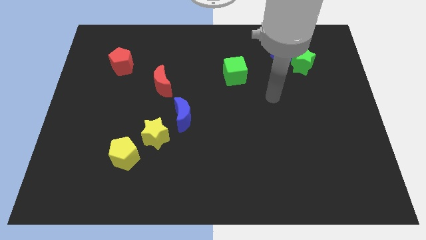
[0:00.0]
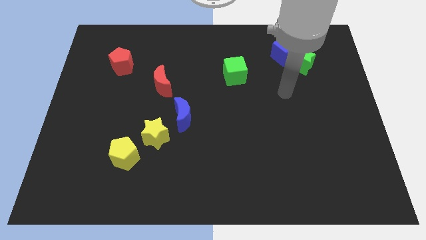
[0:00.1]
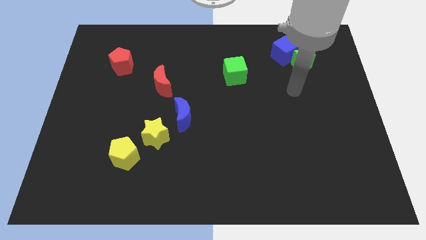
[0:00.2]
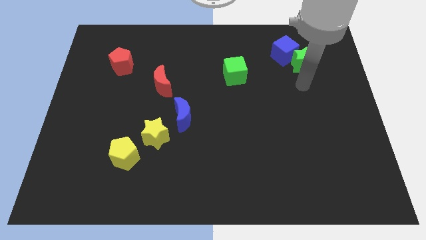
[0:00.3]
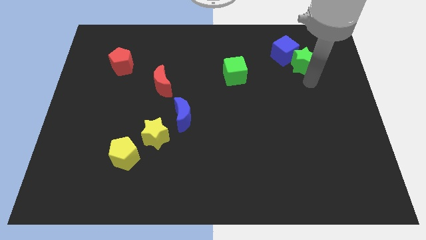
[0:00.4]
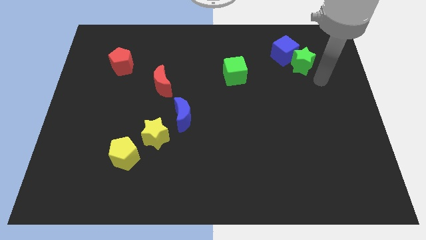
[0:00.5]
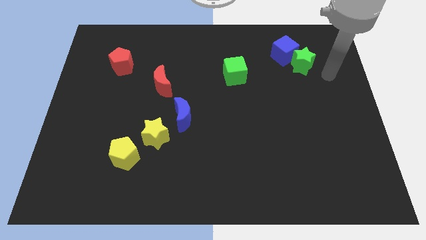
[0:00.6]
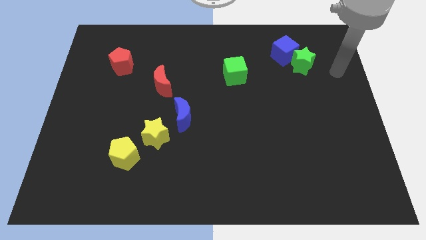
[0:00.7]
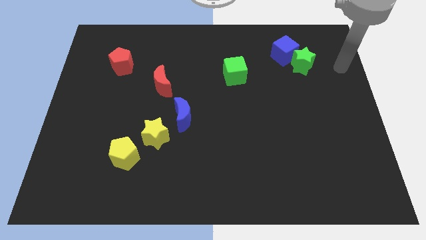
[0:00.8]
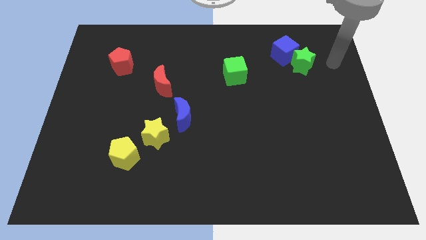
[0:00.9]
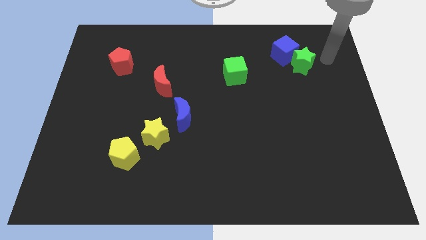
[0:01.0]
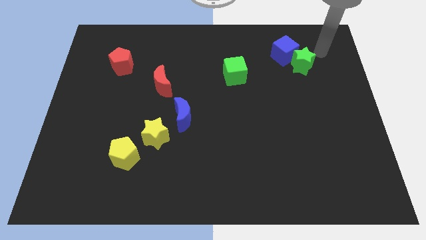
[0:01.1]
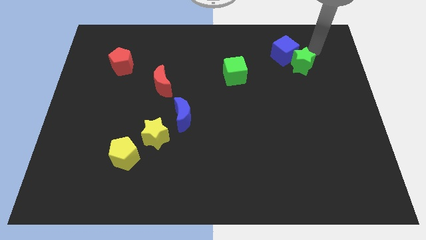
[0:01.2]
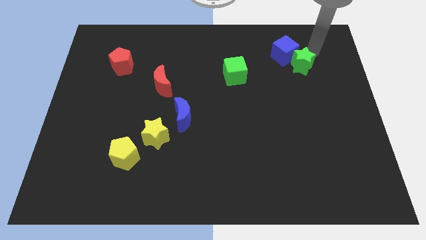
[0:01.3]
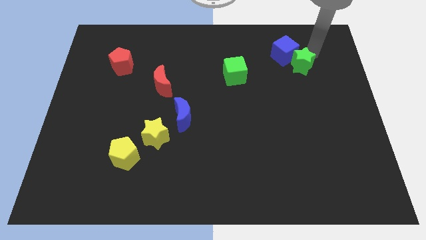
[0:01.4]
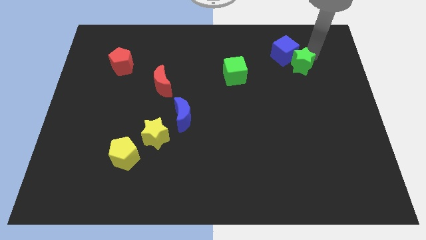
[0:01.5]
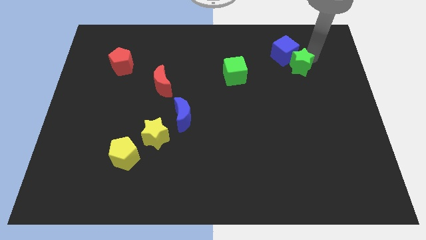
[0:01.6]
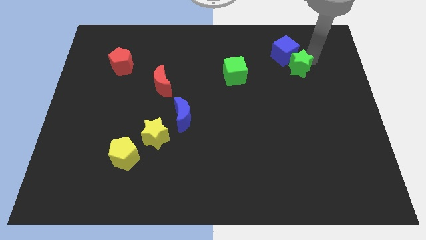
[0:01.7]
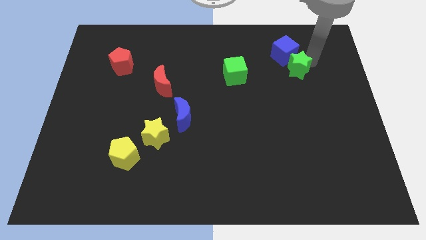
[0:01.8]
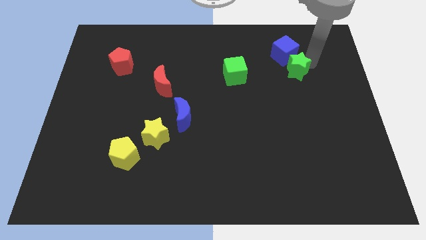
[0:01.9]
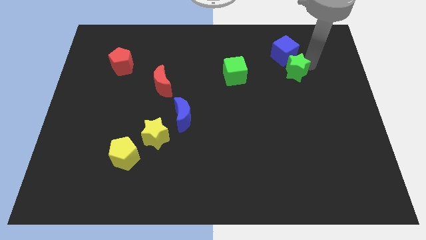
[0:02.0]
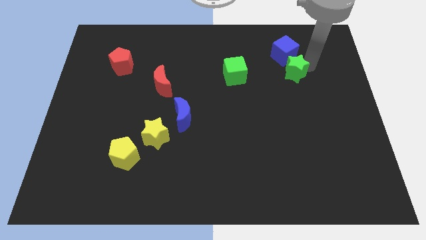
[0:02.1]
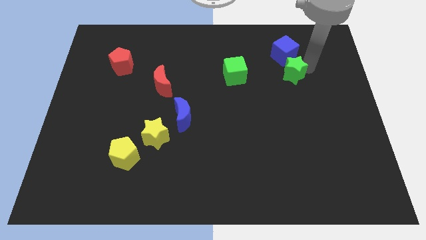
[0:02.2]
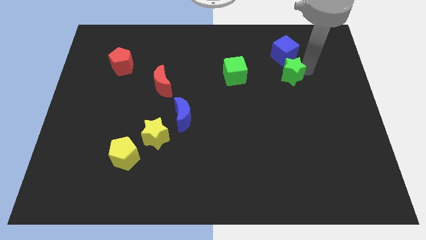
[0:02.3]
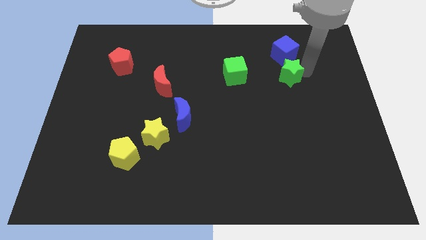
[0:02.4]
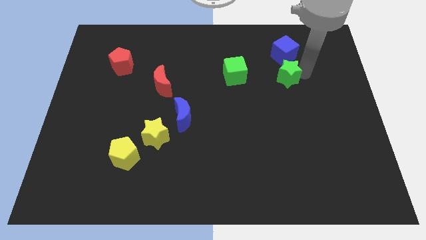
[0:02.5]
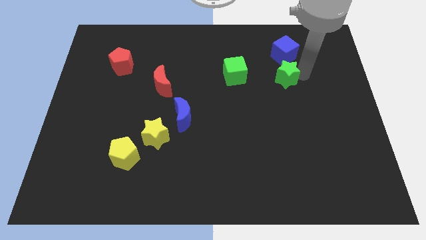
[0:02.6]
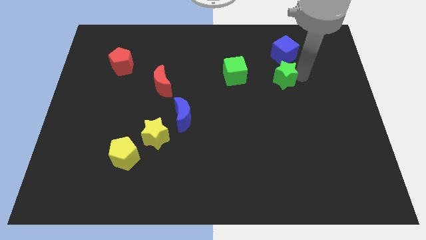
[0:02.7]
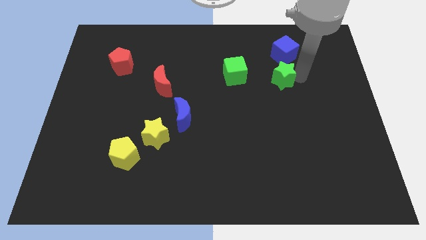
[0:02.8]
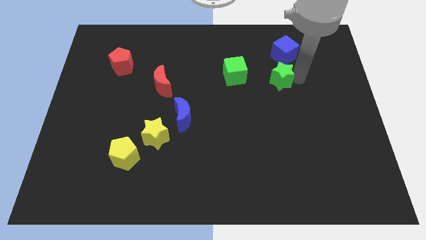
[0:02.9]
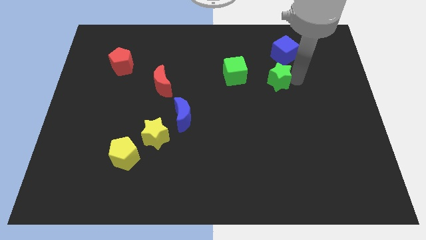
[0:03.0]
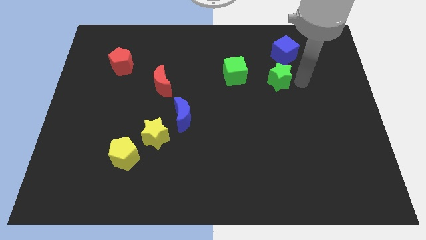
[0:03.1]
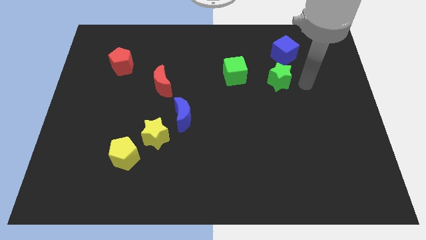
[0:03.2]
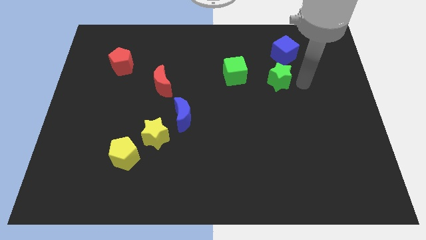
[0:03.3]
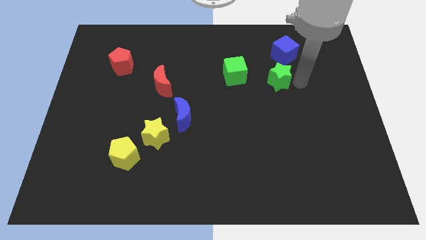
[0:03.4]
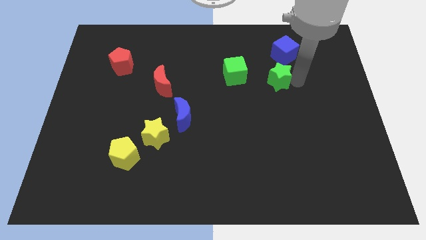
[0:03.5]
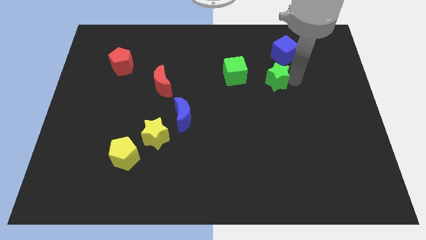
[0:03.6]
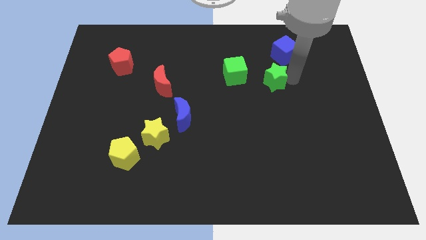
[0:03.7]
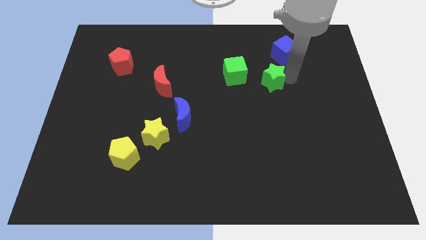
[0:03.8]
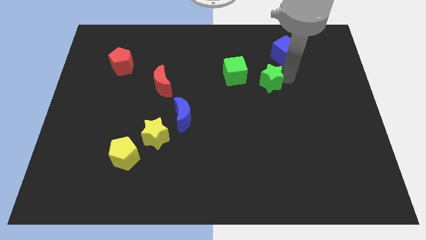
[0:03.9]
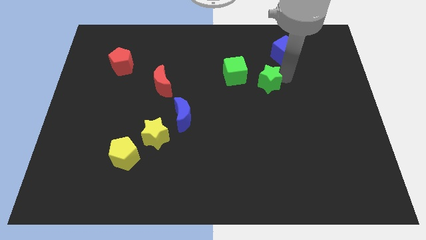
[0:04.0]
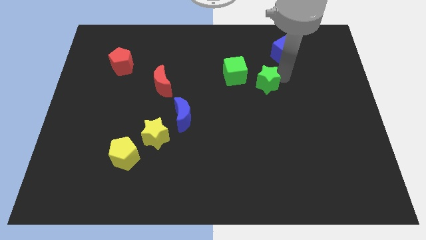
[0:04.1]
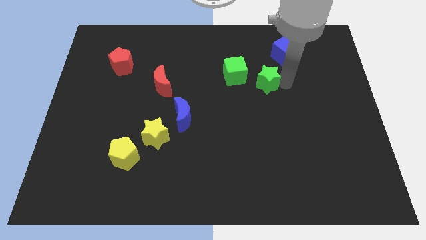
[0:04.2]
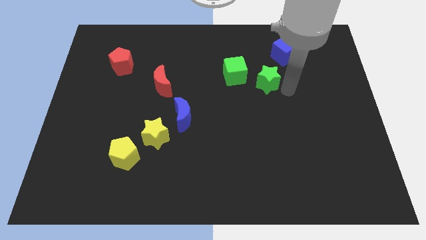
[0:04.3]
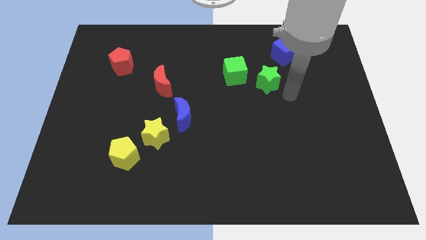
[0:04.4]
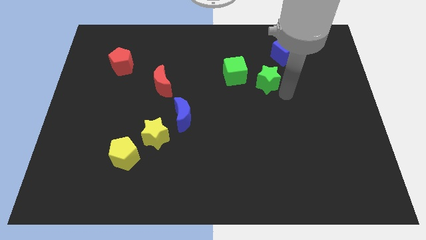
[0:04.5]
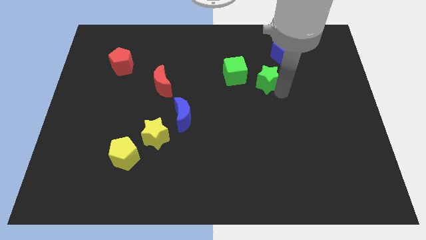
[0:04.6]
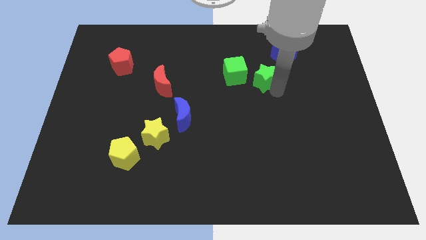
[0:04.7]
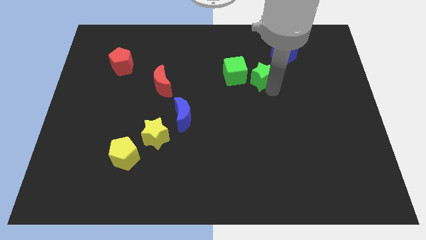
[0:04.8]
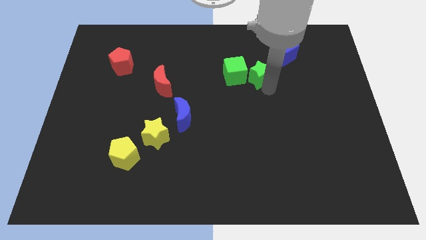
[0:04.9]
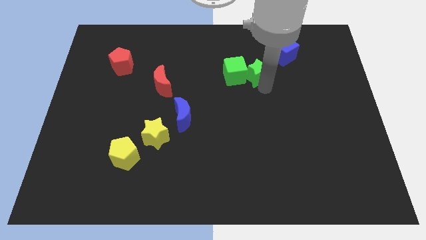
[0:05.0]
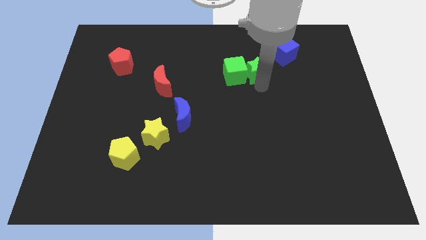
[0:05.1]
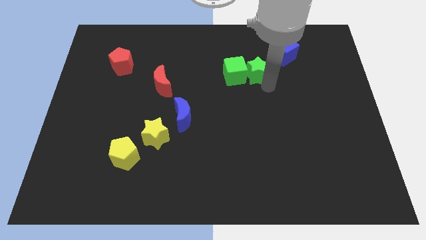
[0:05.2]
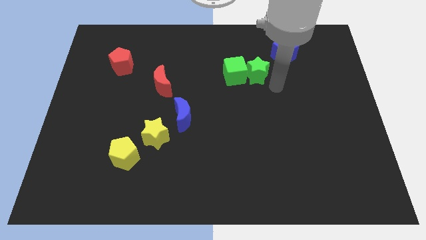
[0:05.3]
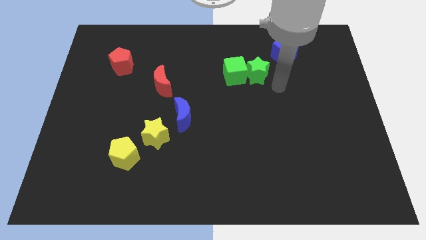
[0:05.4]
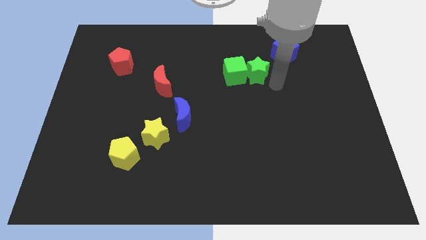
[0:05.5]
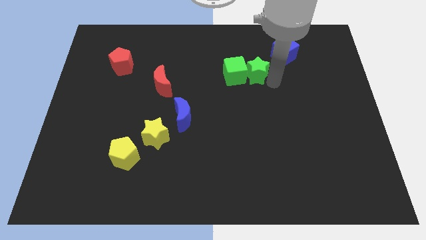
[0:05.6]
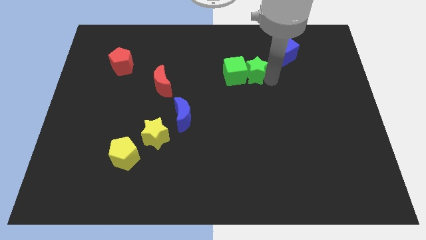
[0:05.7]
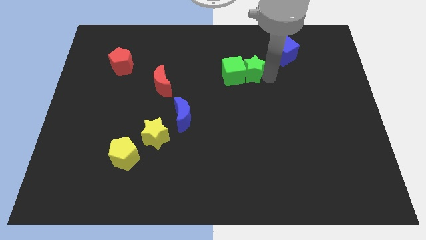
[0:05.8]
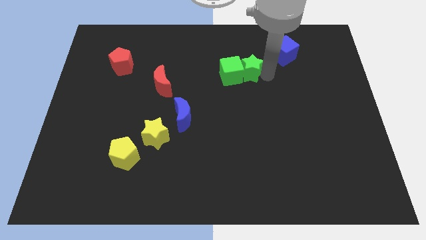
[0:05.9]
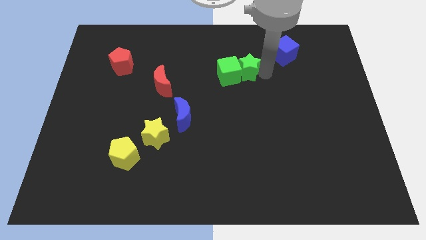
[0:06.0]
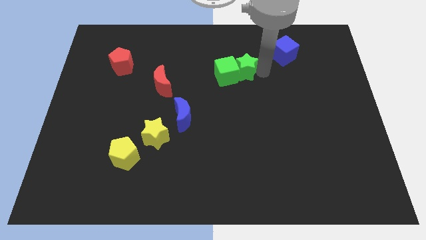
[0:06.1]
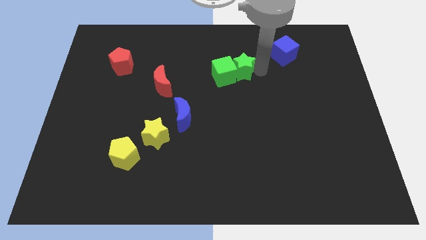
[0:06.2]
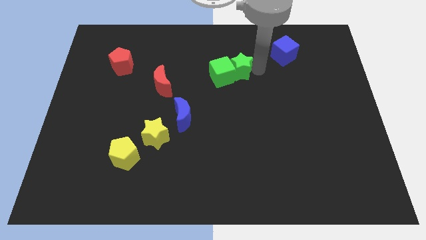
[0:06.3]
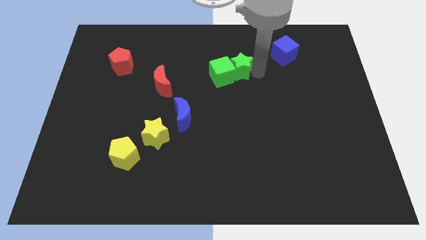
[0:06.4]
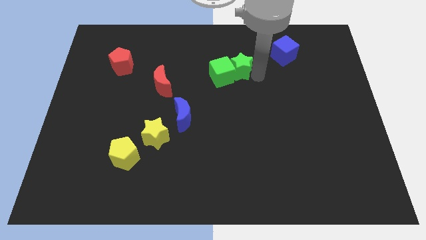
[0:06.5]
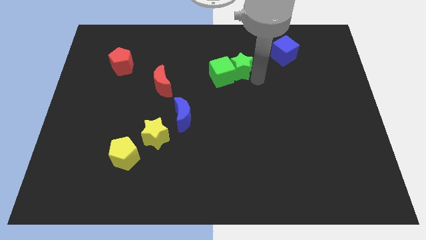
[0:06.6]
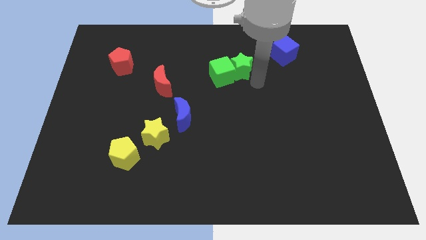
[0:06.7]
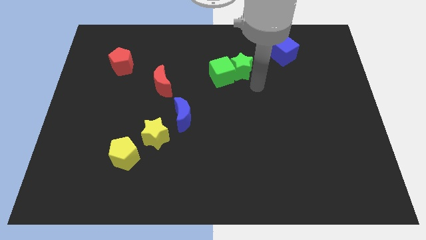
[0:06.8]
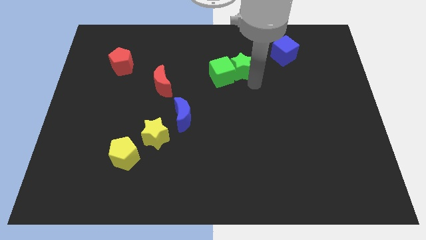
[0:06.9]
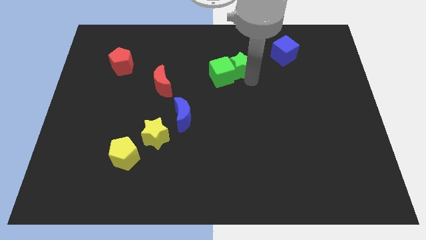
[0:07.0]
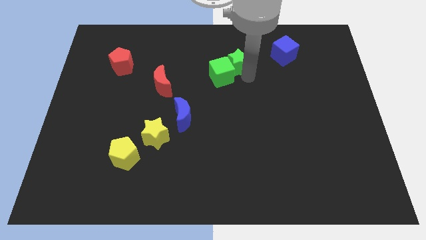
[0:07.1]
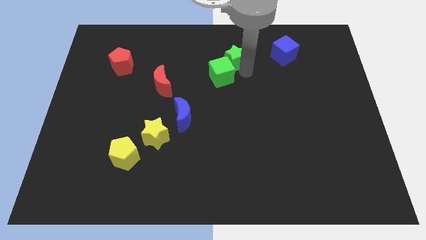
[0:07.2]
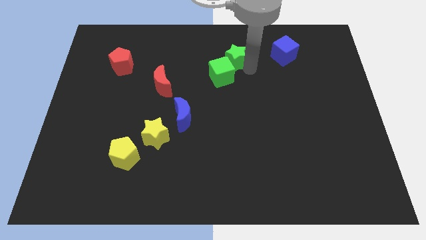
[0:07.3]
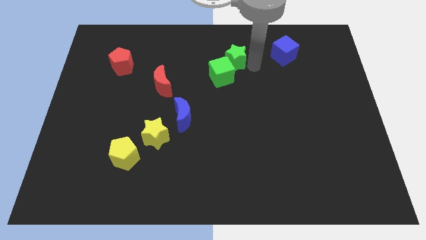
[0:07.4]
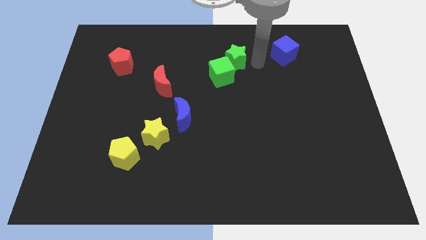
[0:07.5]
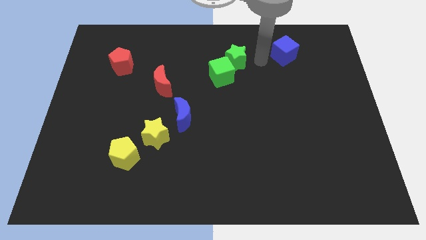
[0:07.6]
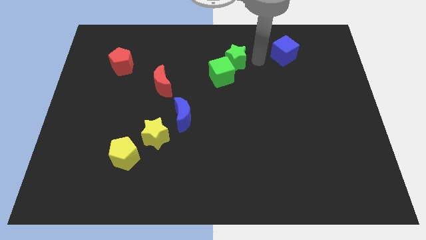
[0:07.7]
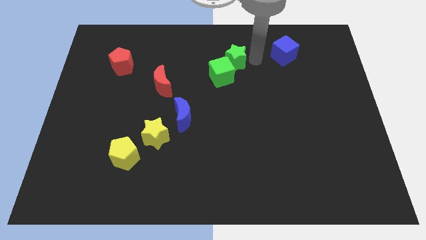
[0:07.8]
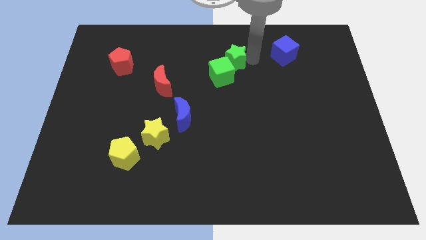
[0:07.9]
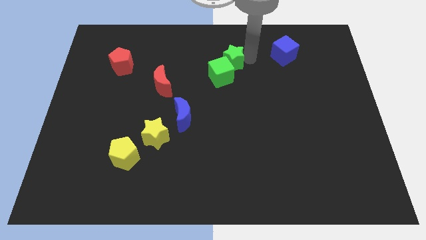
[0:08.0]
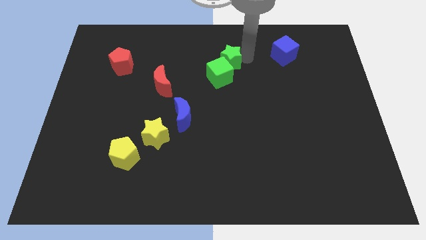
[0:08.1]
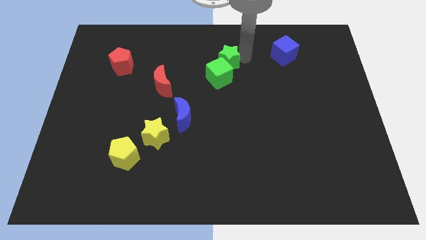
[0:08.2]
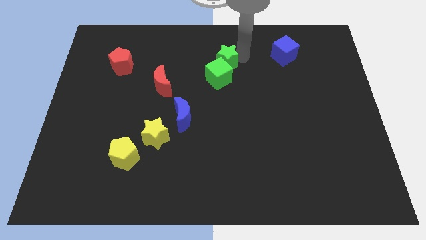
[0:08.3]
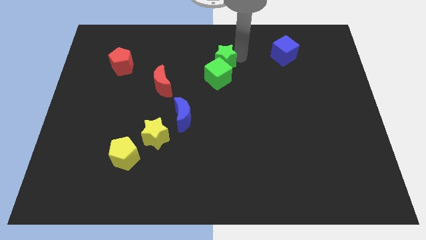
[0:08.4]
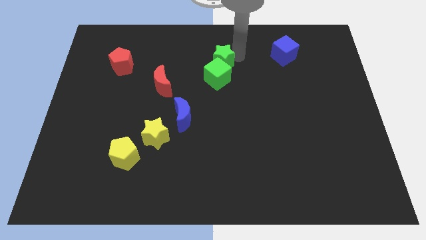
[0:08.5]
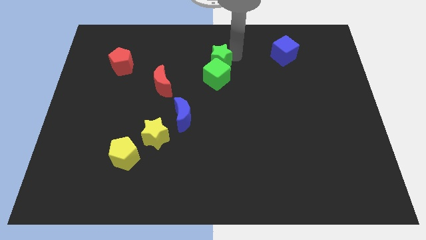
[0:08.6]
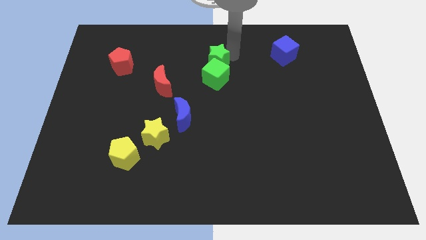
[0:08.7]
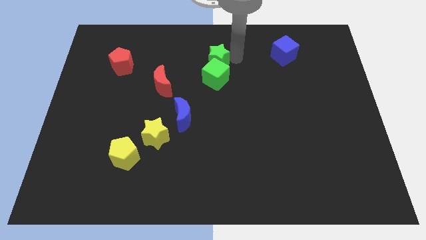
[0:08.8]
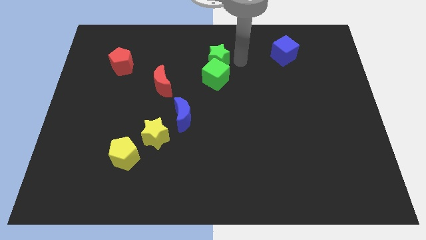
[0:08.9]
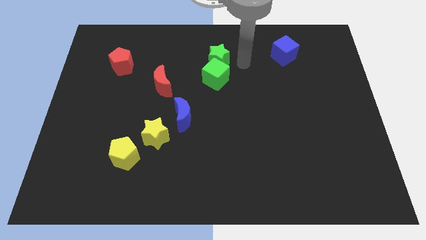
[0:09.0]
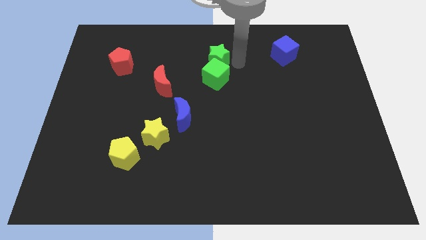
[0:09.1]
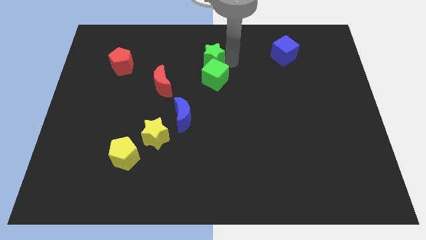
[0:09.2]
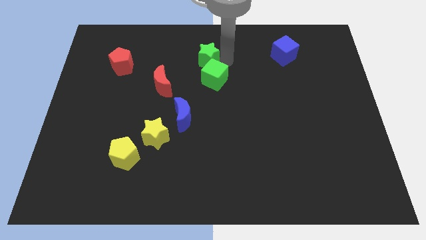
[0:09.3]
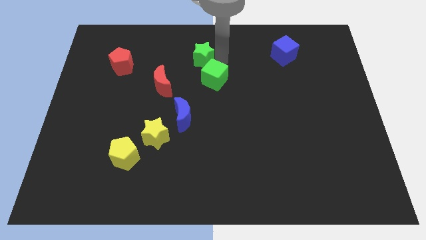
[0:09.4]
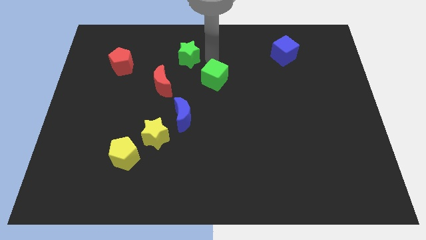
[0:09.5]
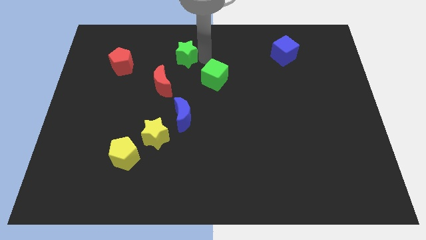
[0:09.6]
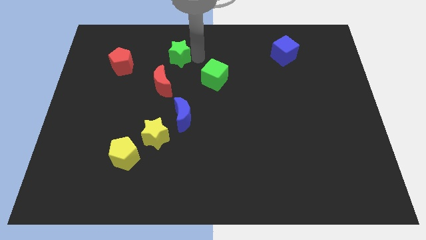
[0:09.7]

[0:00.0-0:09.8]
move the green star to the top side of the red moon
